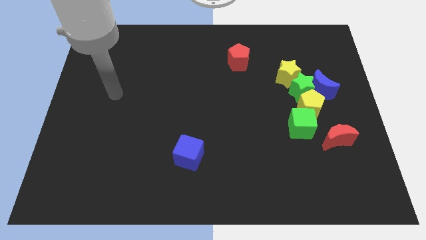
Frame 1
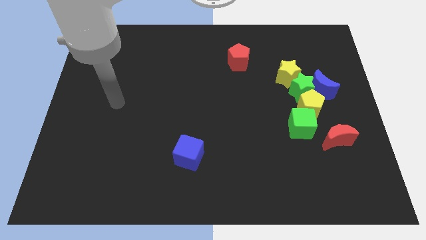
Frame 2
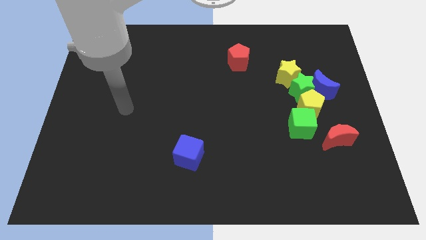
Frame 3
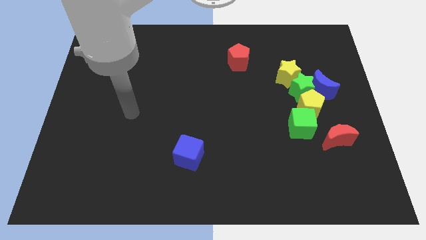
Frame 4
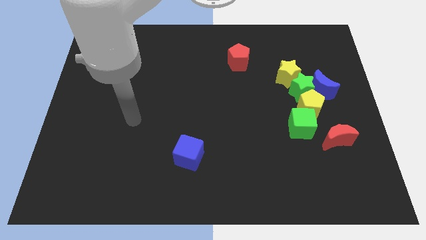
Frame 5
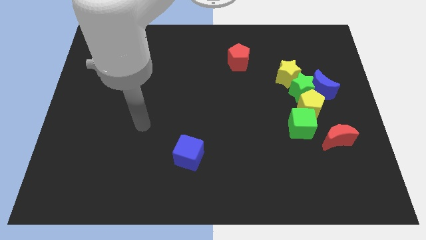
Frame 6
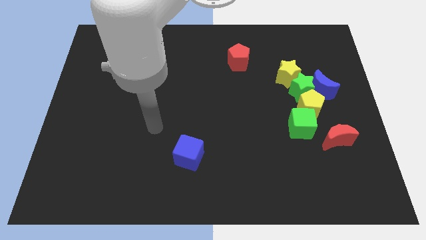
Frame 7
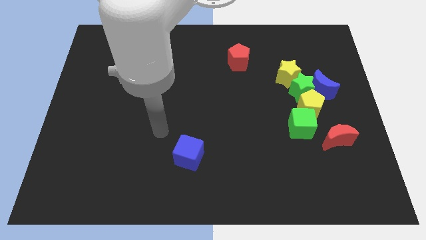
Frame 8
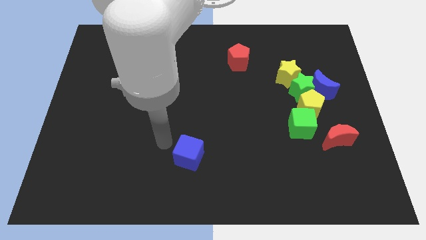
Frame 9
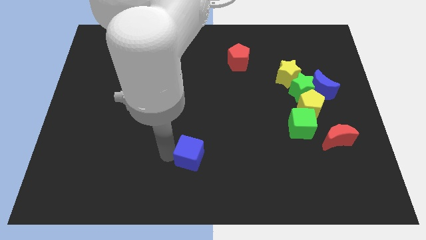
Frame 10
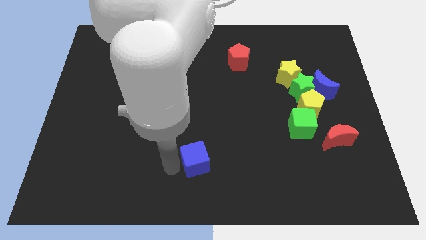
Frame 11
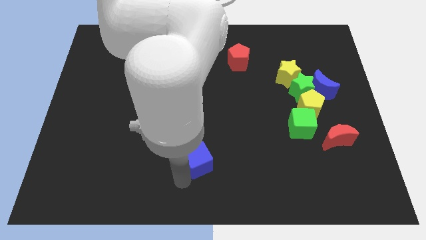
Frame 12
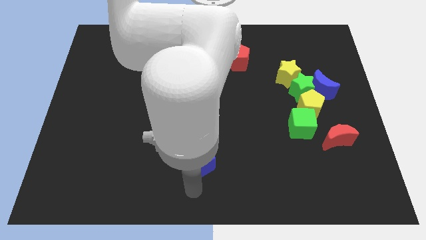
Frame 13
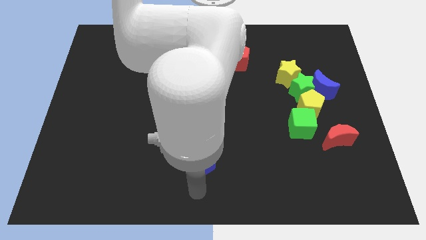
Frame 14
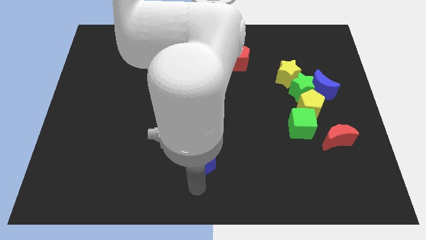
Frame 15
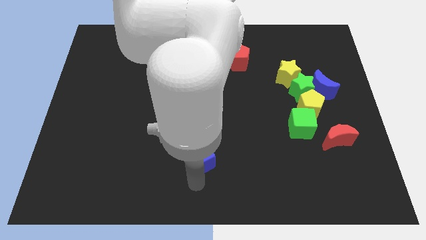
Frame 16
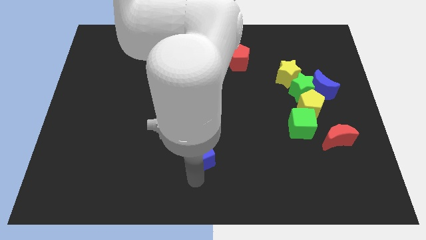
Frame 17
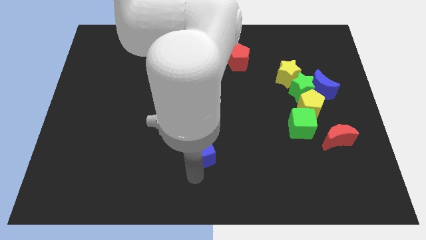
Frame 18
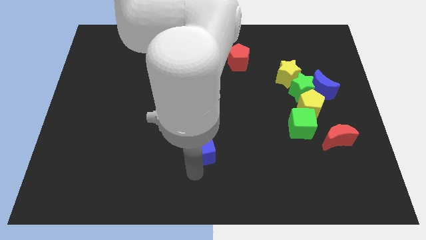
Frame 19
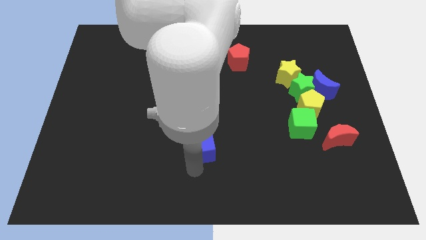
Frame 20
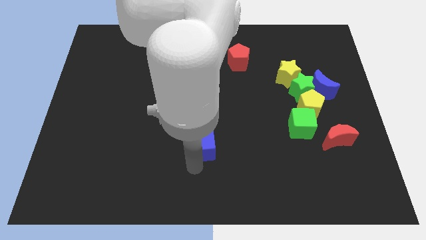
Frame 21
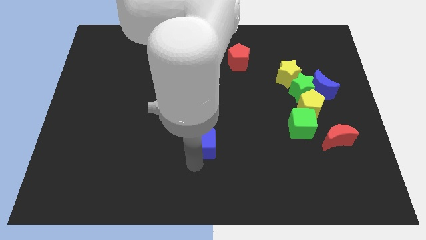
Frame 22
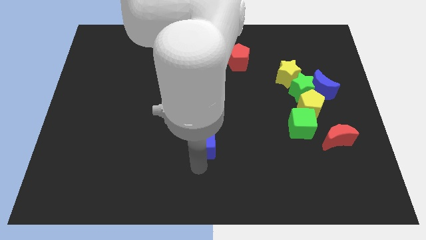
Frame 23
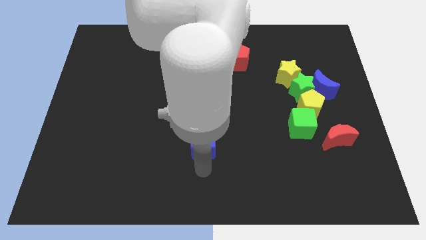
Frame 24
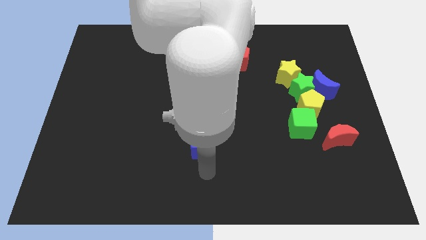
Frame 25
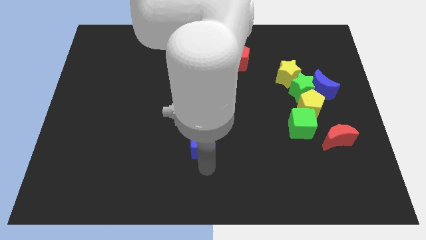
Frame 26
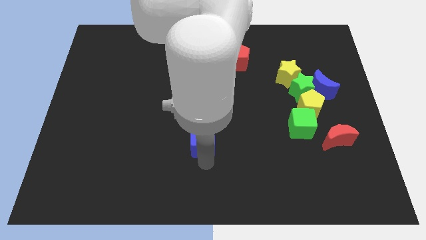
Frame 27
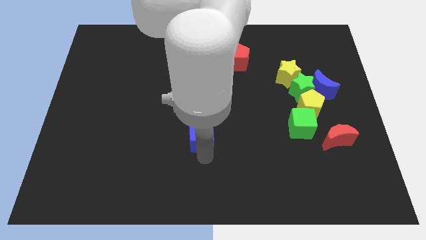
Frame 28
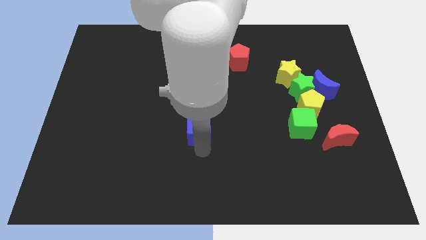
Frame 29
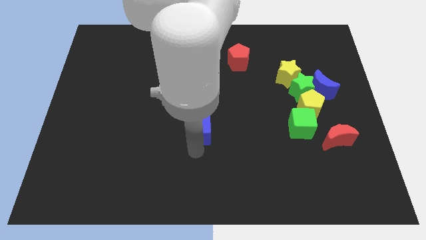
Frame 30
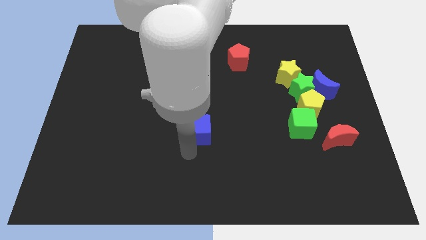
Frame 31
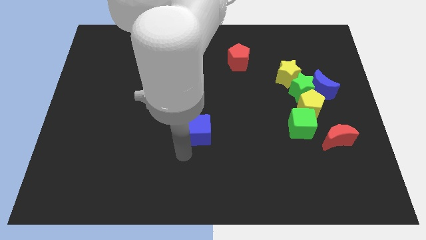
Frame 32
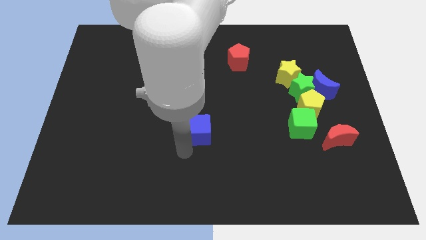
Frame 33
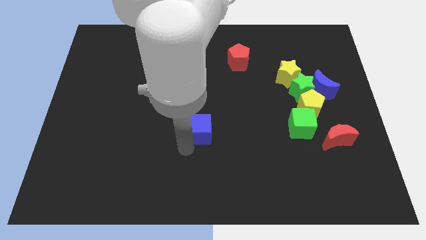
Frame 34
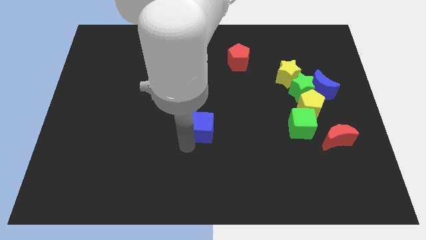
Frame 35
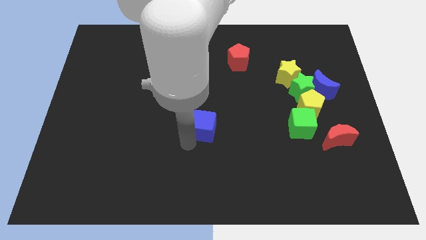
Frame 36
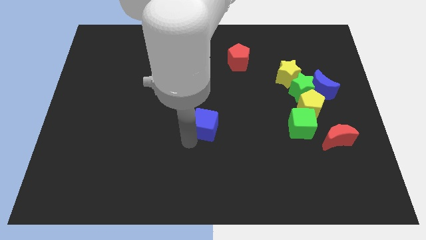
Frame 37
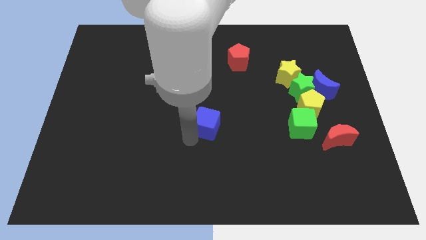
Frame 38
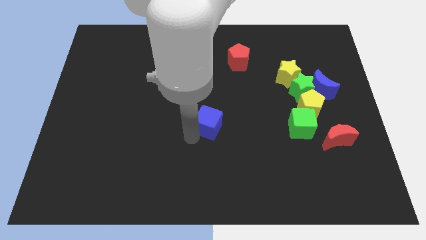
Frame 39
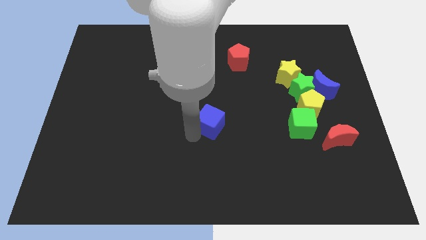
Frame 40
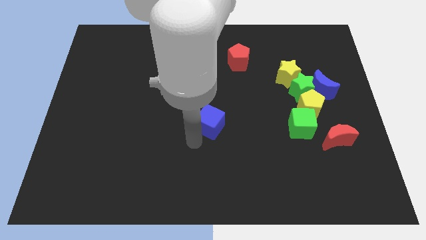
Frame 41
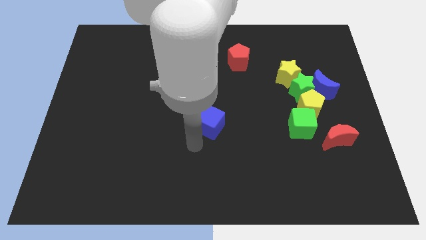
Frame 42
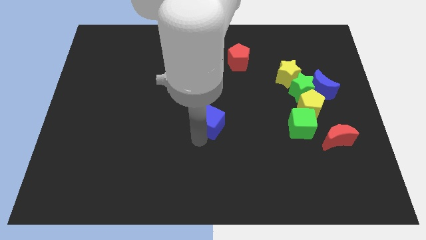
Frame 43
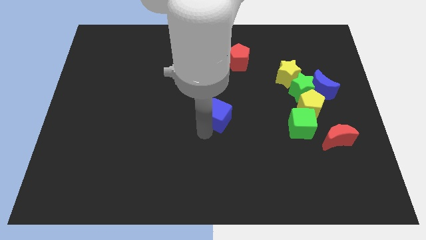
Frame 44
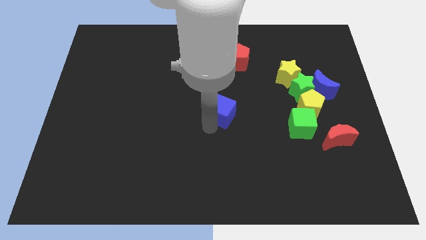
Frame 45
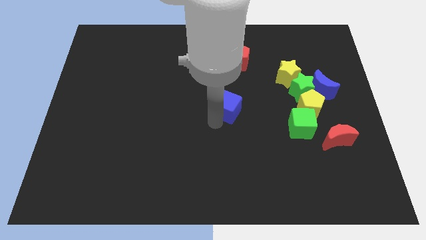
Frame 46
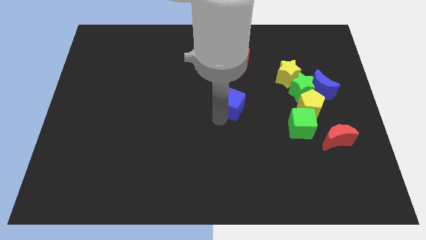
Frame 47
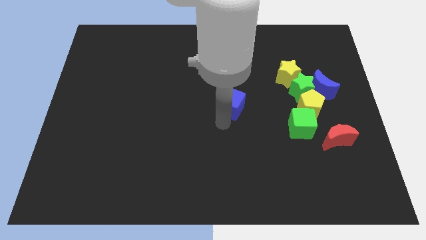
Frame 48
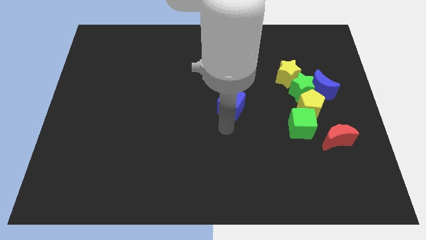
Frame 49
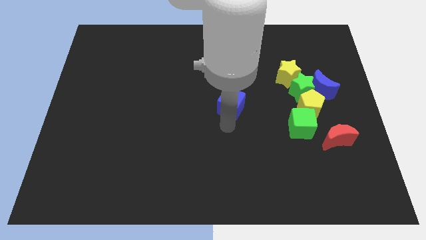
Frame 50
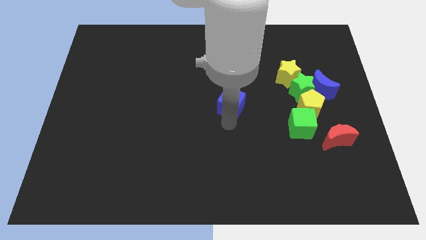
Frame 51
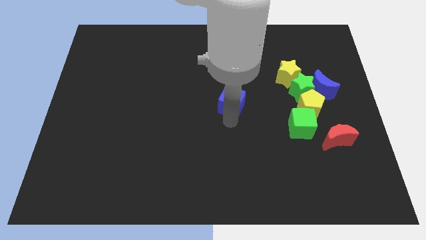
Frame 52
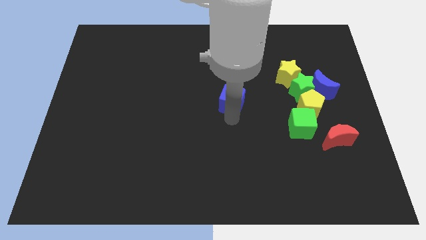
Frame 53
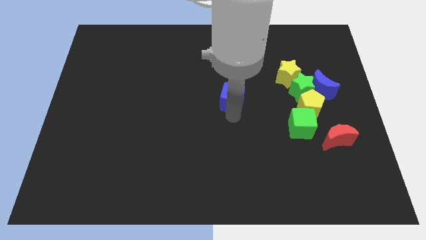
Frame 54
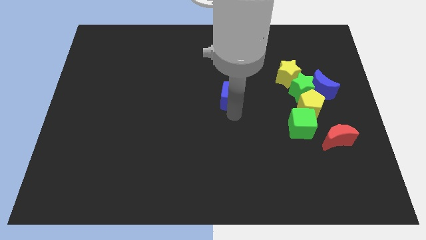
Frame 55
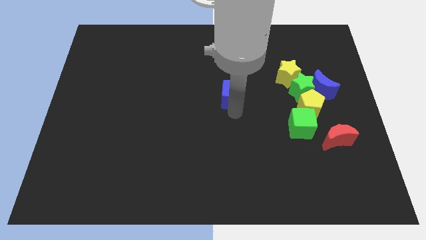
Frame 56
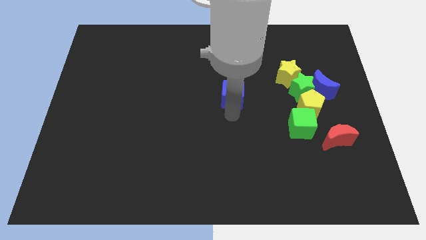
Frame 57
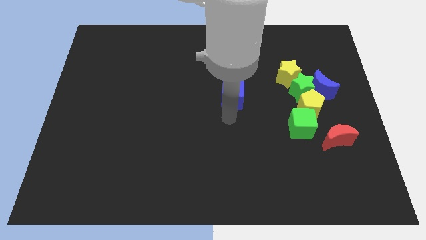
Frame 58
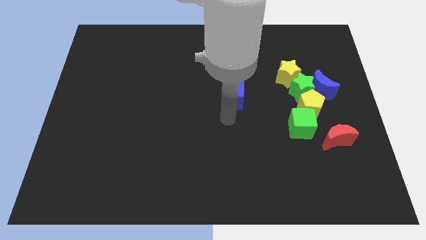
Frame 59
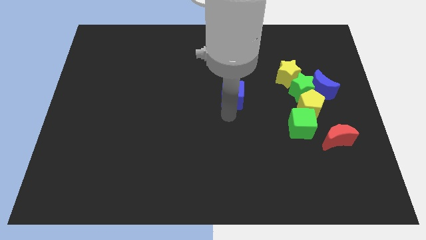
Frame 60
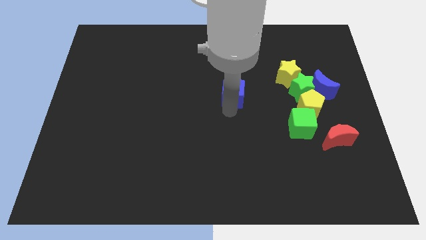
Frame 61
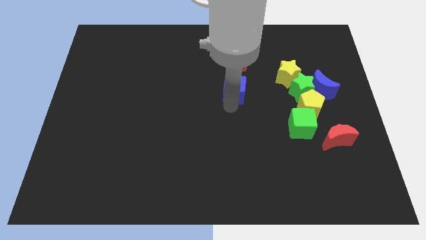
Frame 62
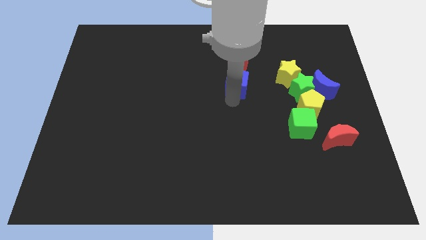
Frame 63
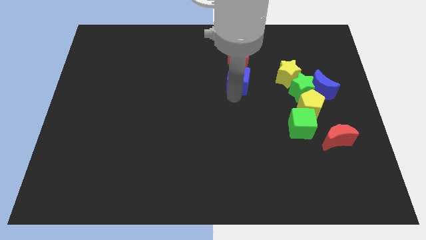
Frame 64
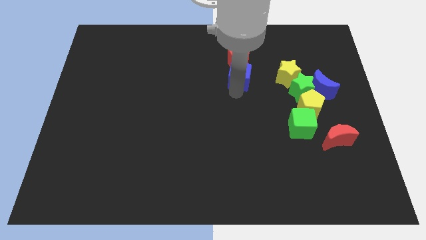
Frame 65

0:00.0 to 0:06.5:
move the blue cube towards the red pentagon

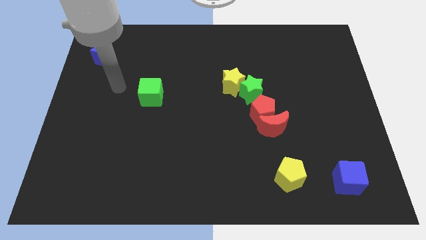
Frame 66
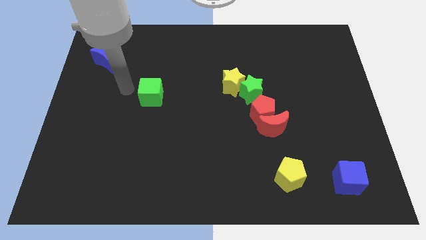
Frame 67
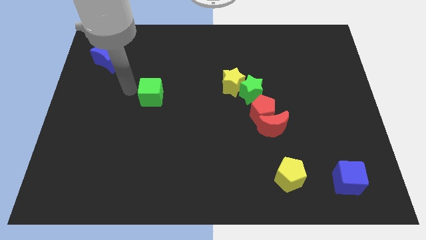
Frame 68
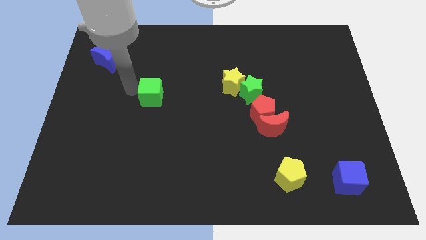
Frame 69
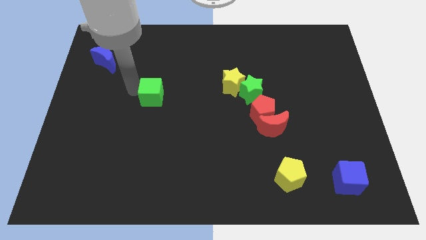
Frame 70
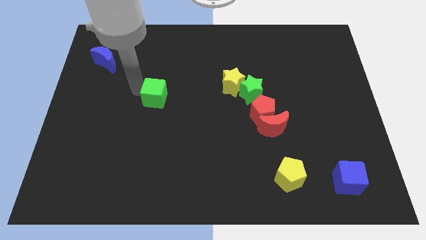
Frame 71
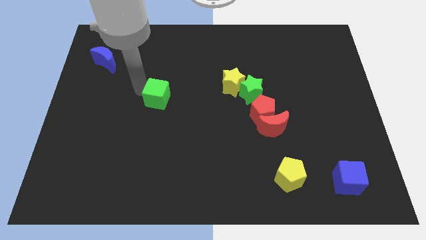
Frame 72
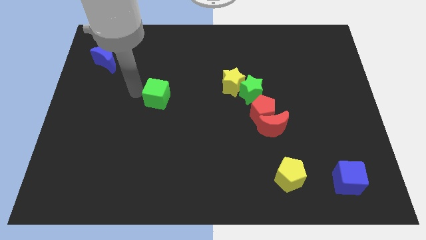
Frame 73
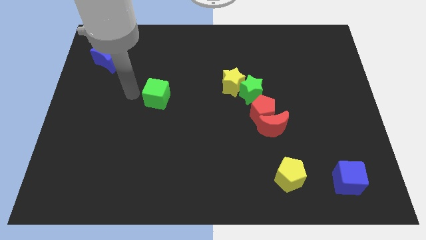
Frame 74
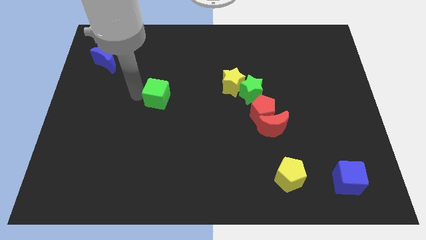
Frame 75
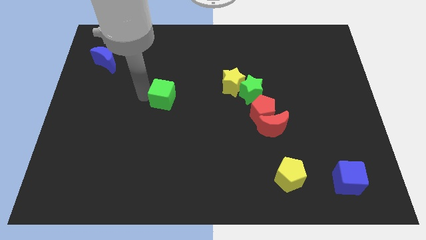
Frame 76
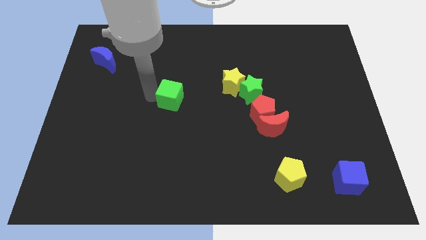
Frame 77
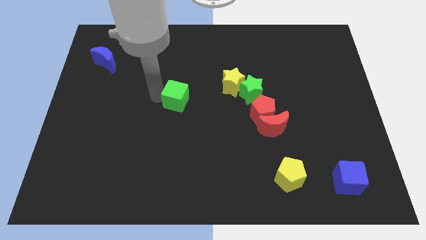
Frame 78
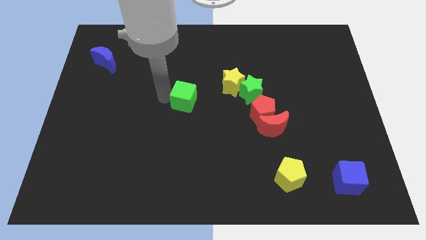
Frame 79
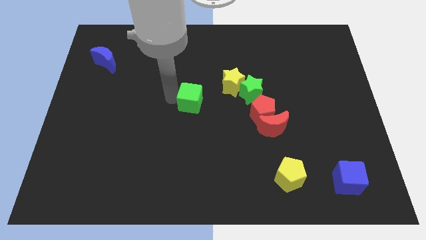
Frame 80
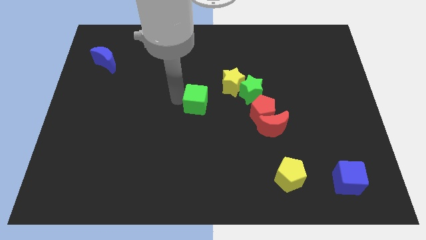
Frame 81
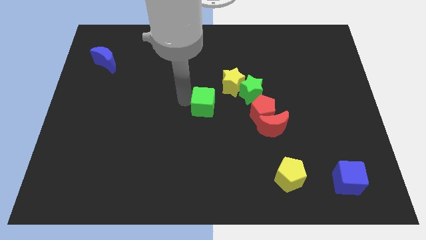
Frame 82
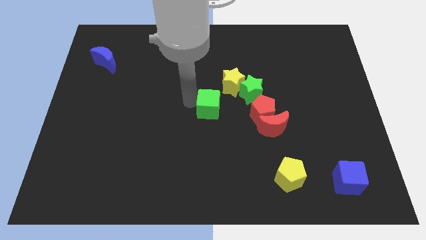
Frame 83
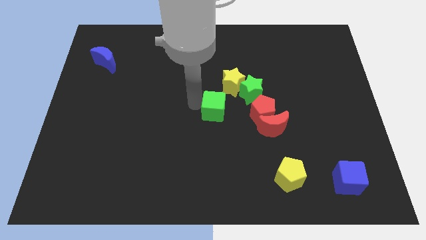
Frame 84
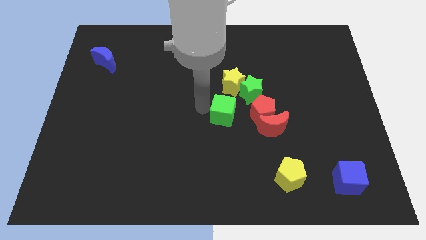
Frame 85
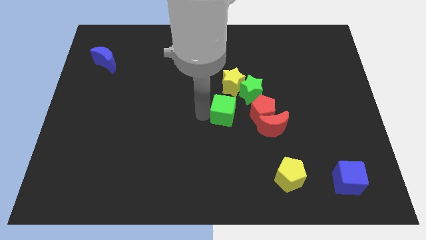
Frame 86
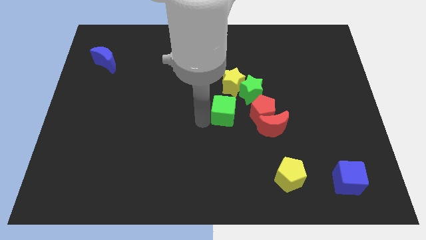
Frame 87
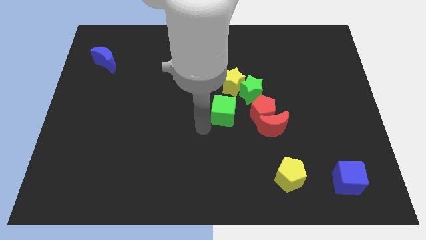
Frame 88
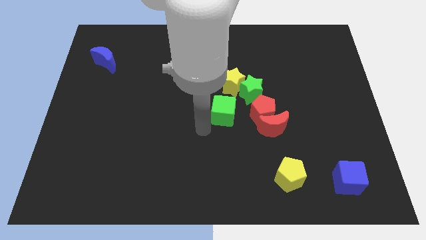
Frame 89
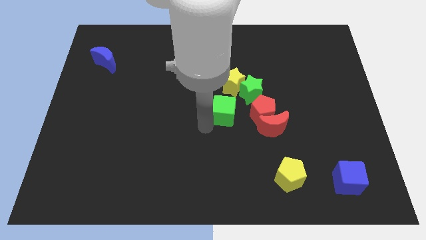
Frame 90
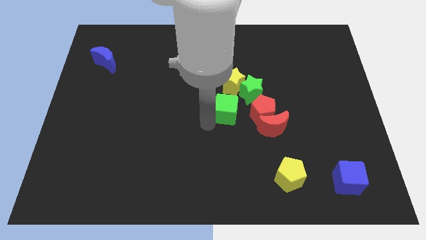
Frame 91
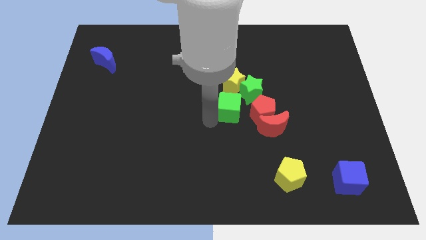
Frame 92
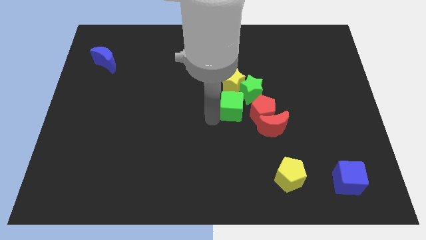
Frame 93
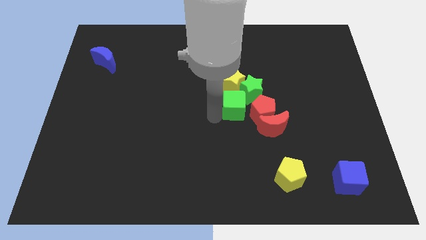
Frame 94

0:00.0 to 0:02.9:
put the green cube towards the green star
